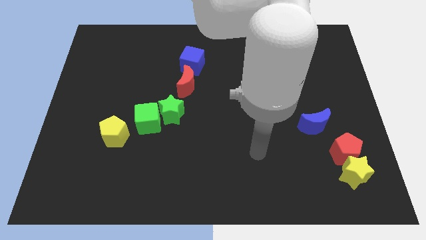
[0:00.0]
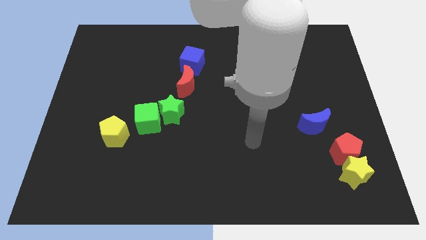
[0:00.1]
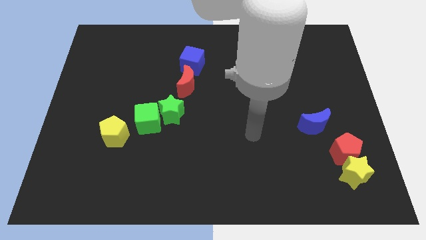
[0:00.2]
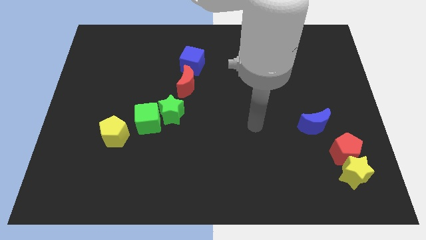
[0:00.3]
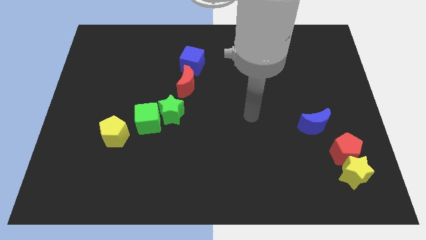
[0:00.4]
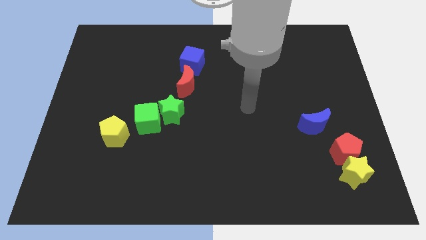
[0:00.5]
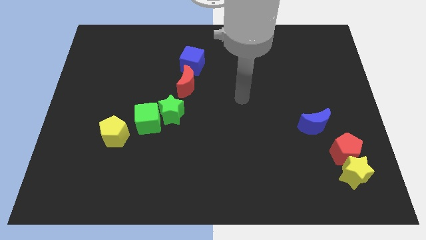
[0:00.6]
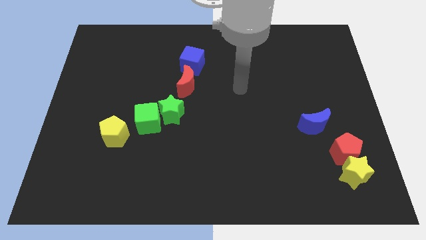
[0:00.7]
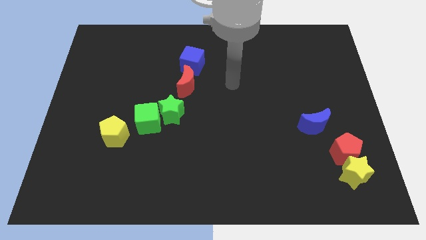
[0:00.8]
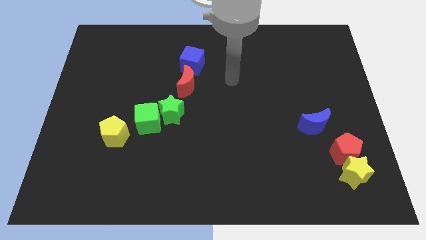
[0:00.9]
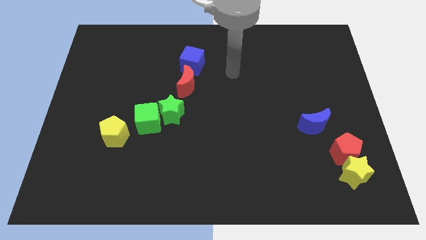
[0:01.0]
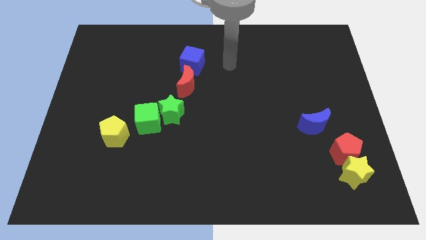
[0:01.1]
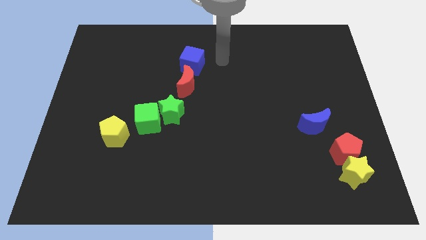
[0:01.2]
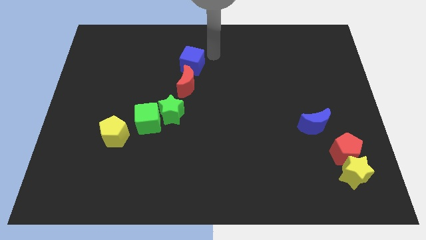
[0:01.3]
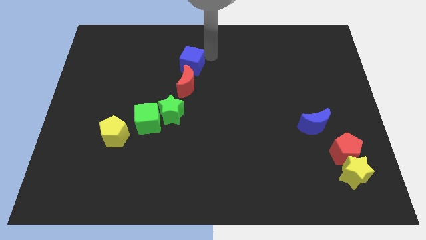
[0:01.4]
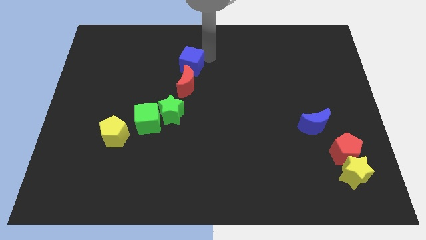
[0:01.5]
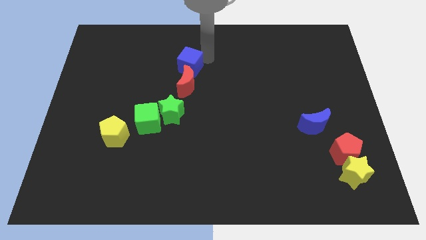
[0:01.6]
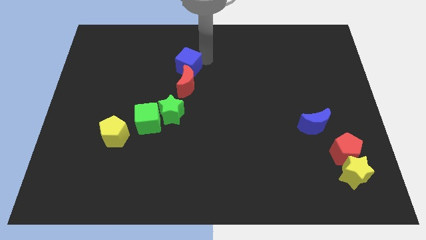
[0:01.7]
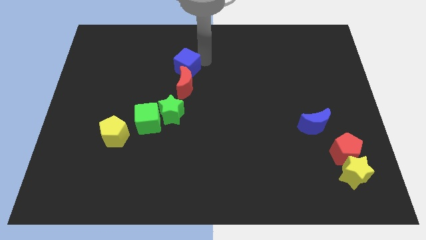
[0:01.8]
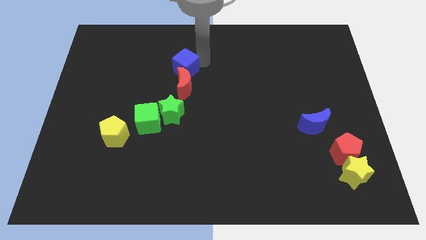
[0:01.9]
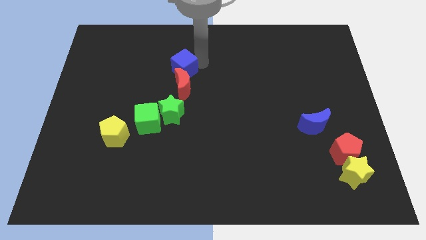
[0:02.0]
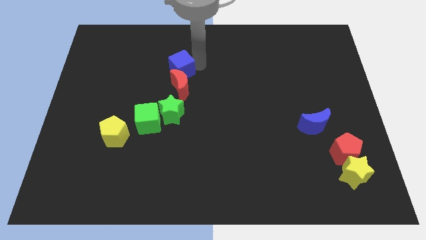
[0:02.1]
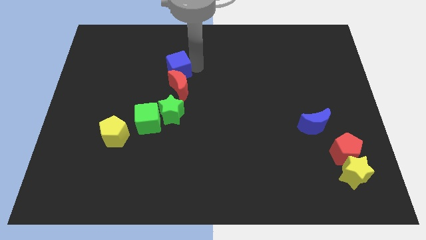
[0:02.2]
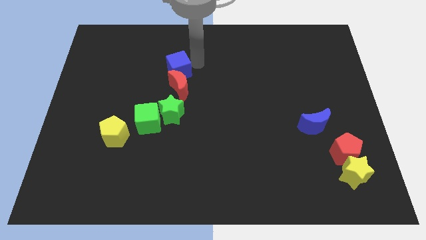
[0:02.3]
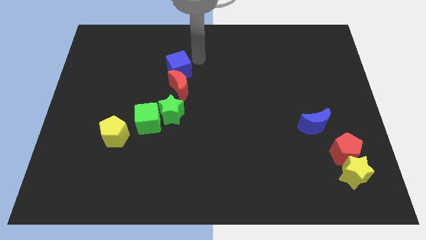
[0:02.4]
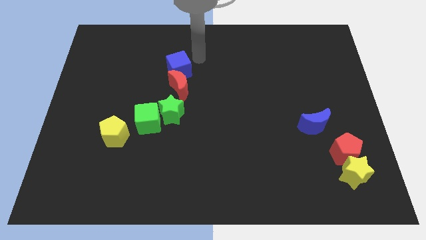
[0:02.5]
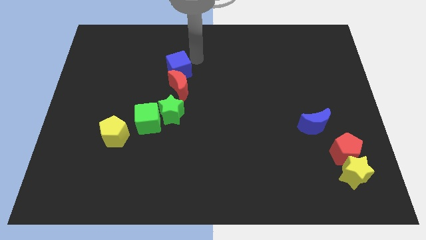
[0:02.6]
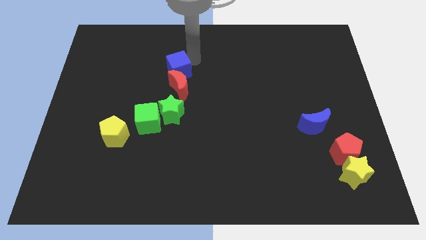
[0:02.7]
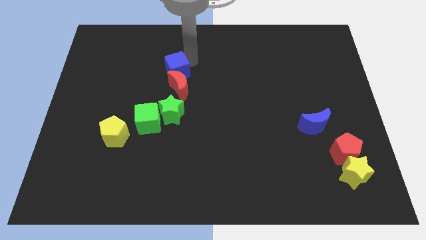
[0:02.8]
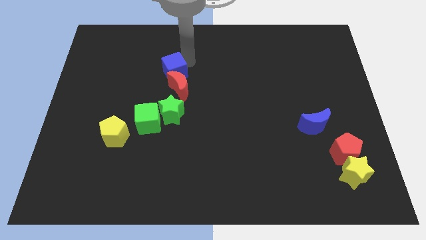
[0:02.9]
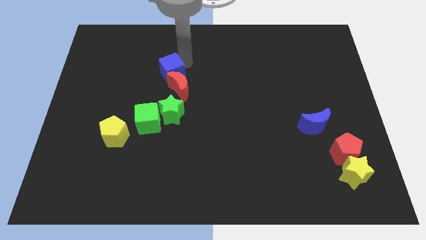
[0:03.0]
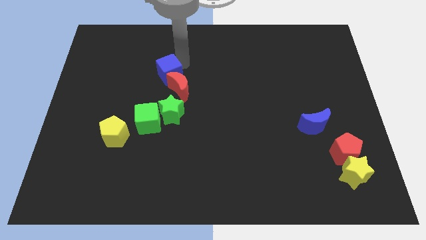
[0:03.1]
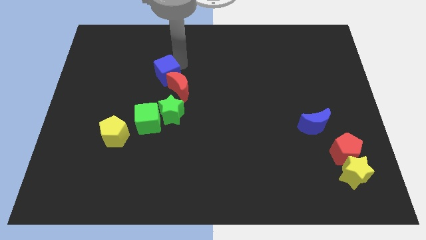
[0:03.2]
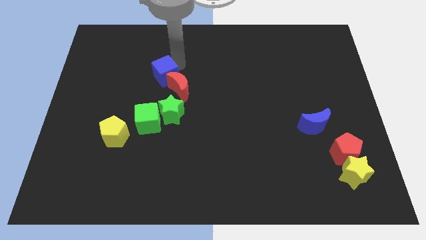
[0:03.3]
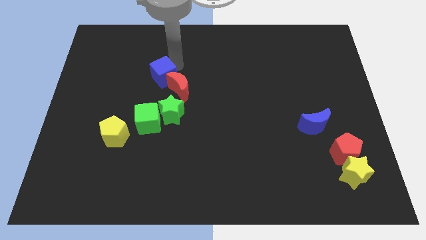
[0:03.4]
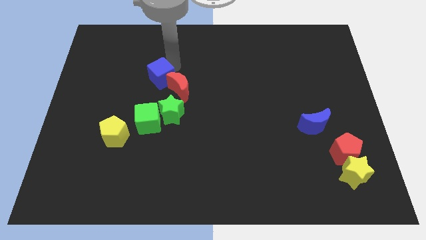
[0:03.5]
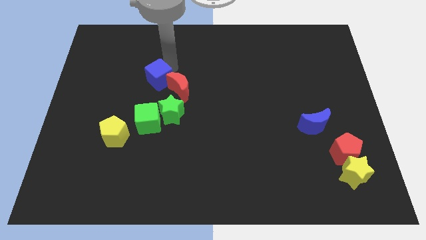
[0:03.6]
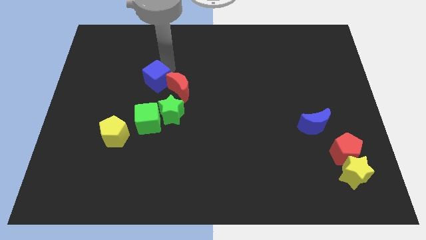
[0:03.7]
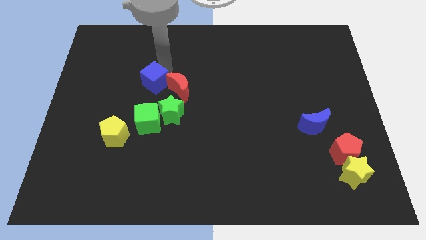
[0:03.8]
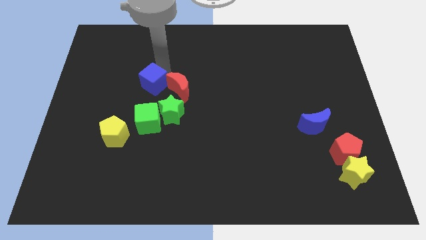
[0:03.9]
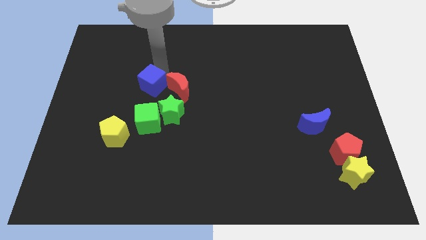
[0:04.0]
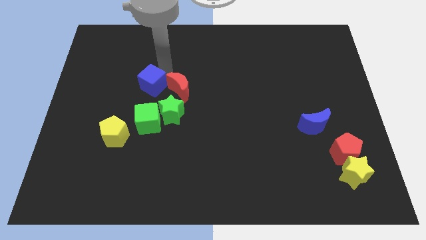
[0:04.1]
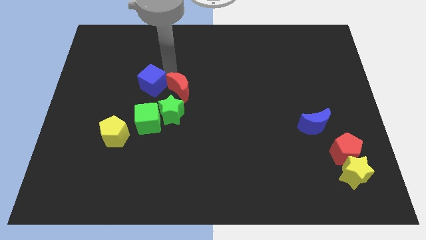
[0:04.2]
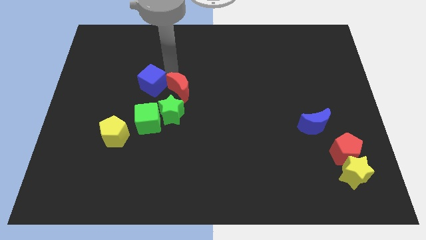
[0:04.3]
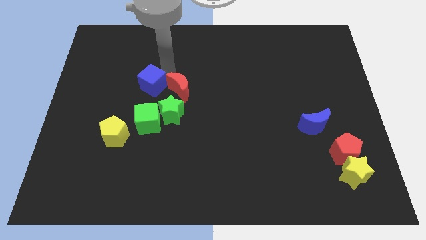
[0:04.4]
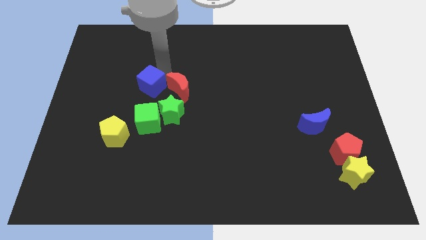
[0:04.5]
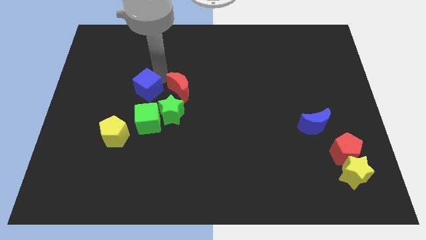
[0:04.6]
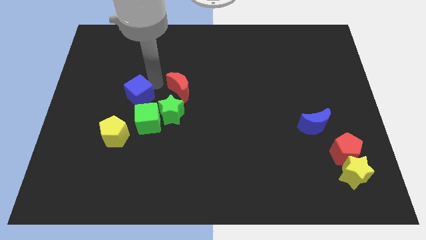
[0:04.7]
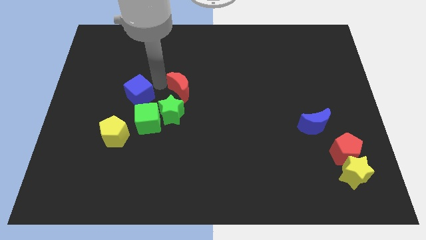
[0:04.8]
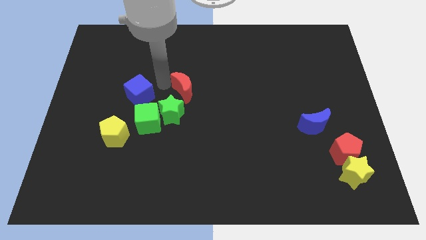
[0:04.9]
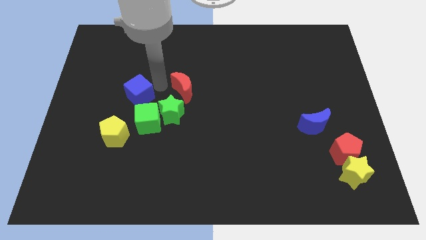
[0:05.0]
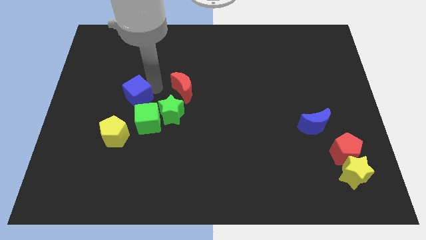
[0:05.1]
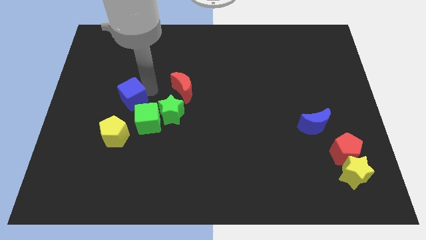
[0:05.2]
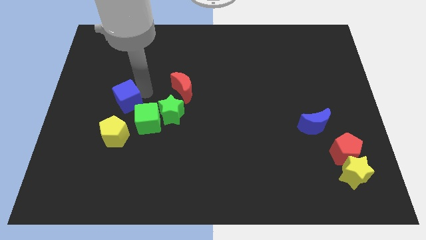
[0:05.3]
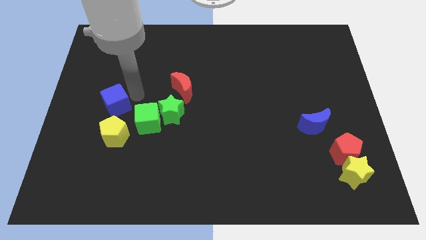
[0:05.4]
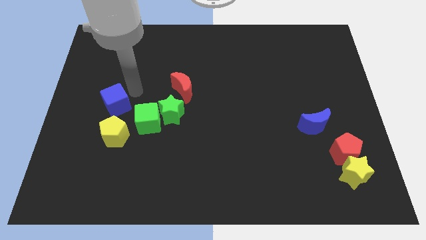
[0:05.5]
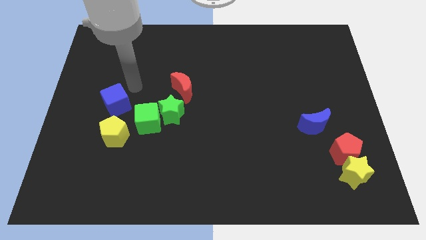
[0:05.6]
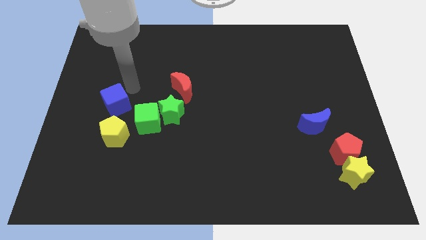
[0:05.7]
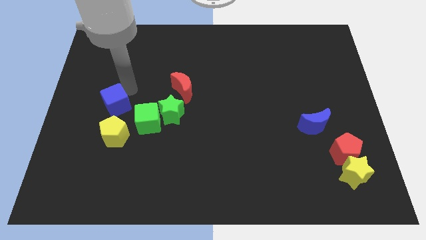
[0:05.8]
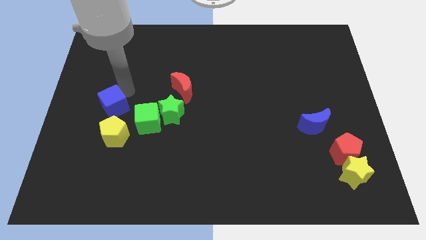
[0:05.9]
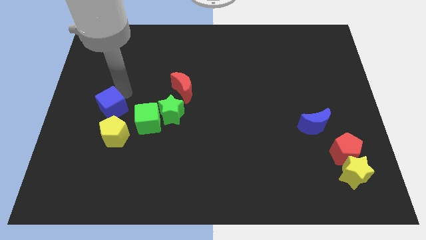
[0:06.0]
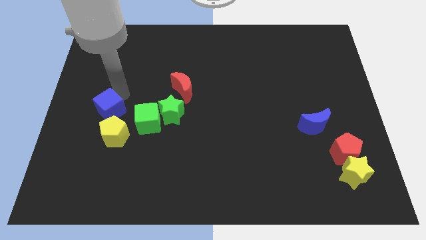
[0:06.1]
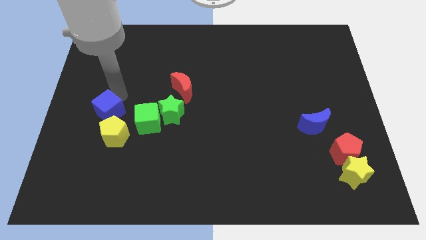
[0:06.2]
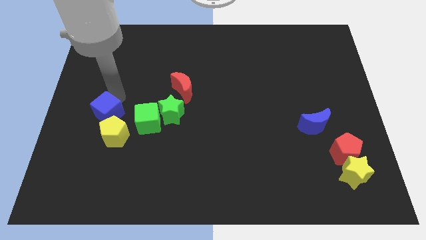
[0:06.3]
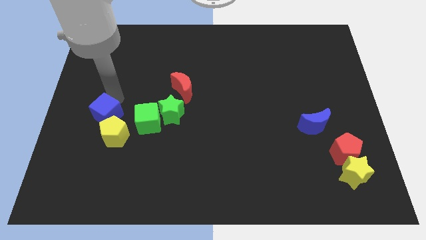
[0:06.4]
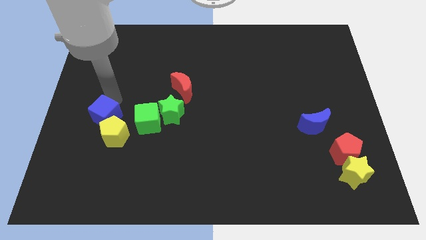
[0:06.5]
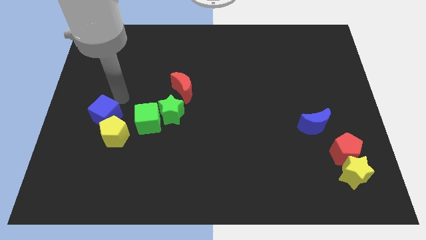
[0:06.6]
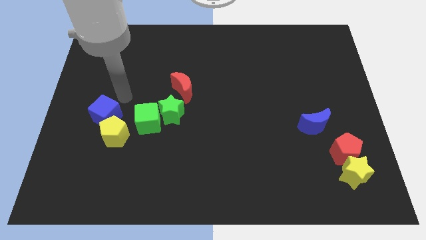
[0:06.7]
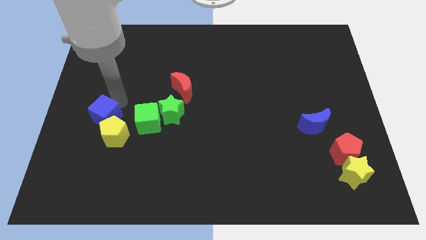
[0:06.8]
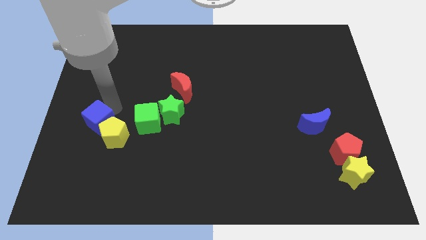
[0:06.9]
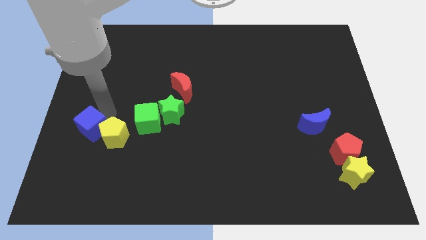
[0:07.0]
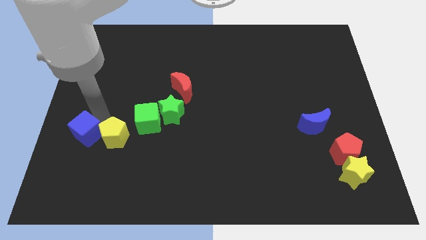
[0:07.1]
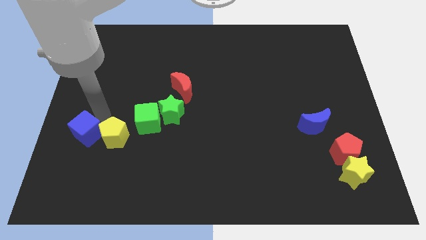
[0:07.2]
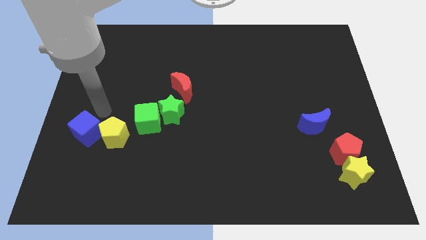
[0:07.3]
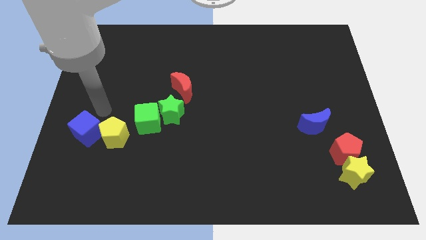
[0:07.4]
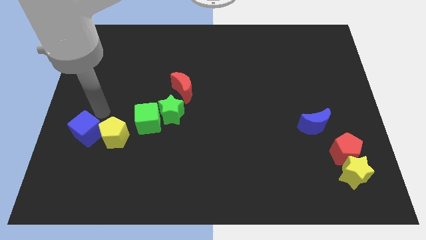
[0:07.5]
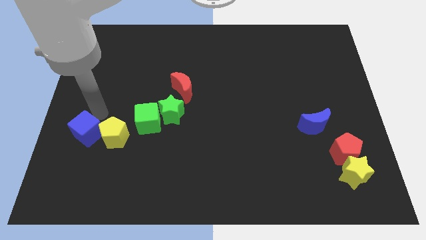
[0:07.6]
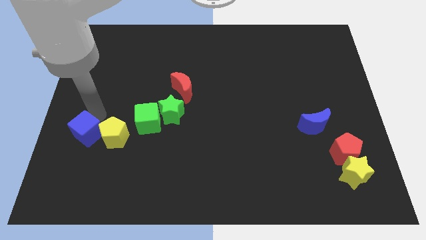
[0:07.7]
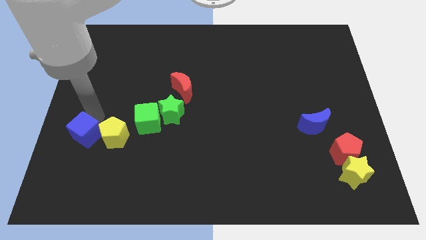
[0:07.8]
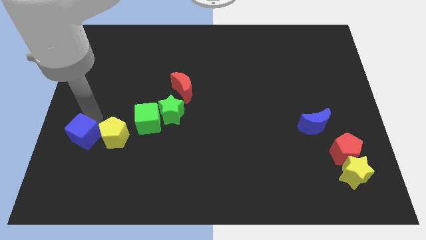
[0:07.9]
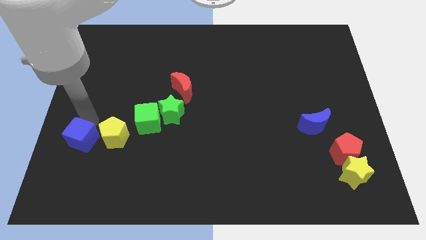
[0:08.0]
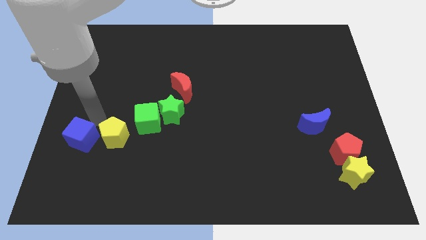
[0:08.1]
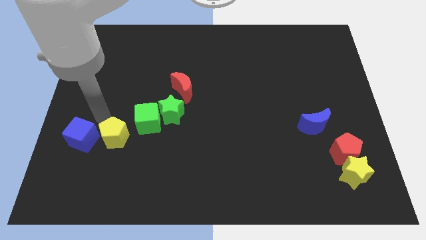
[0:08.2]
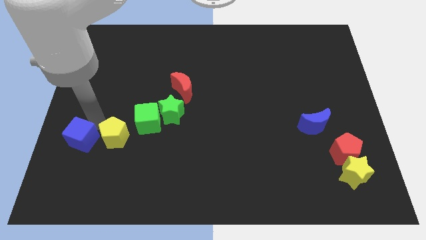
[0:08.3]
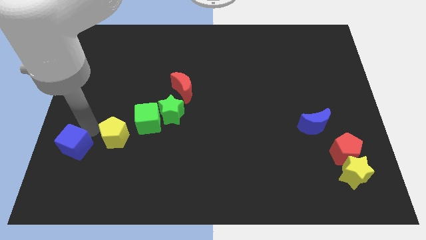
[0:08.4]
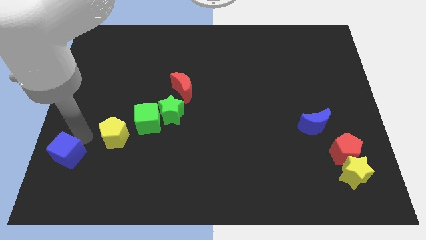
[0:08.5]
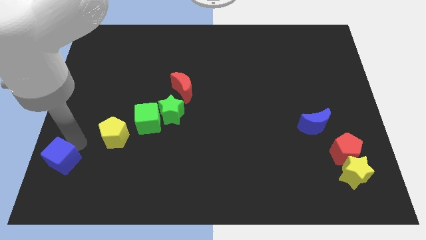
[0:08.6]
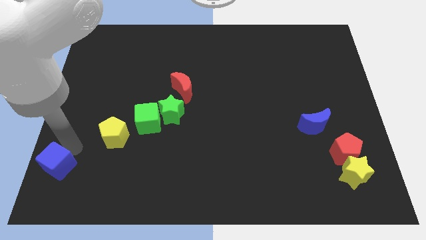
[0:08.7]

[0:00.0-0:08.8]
move the blue cube to the lower left corner
